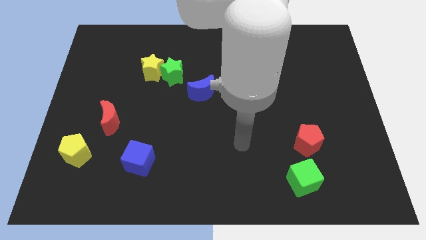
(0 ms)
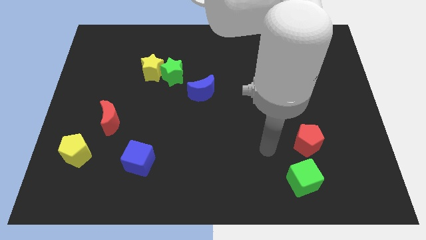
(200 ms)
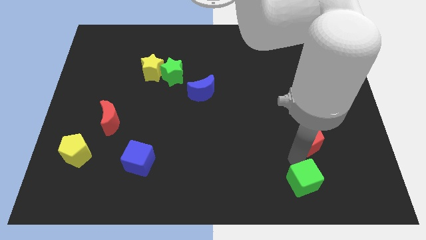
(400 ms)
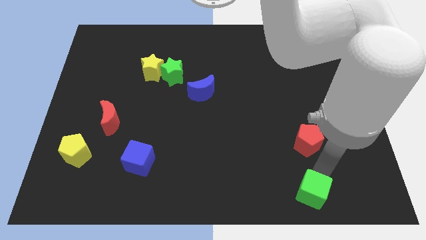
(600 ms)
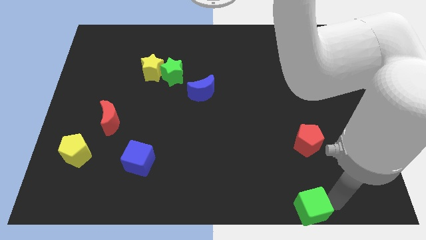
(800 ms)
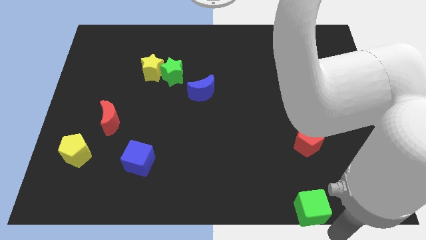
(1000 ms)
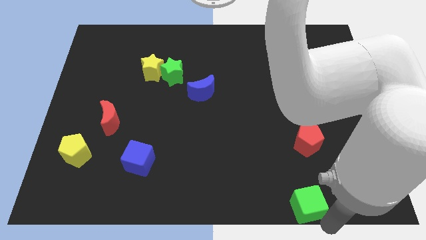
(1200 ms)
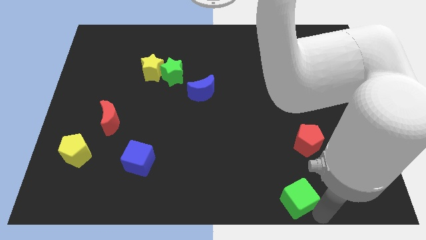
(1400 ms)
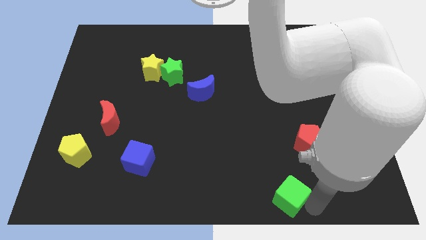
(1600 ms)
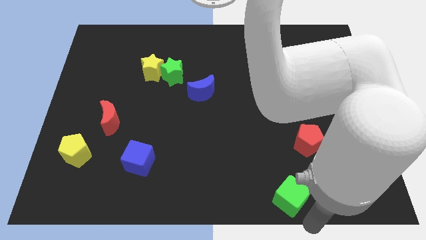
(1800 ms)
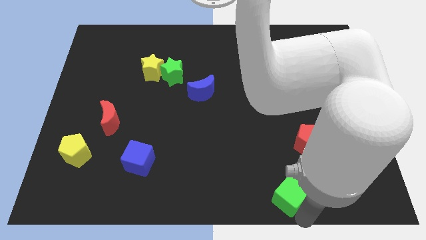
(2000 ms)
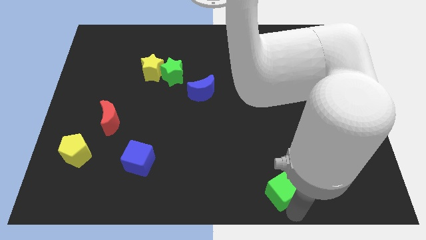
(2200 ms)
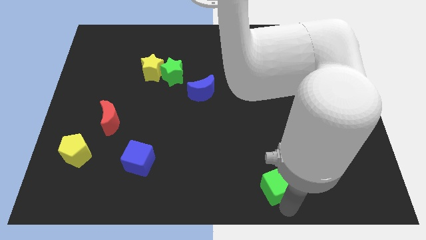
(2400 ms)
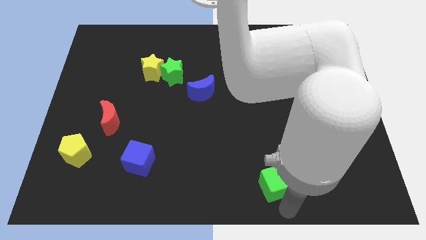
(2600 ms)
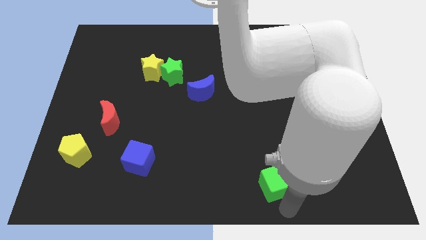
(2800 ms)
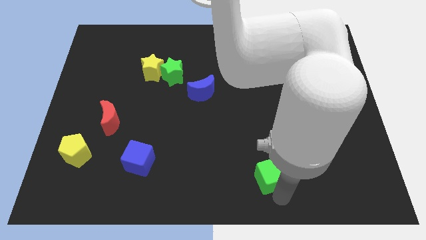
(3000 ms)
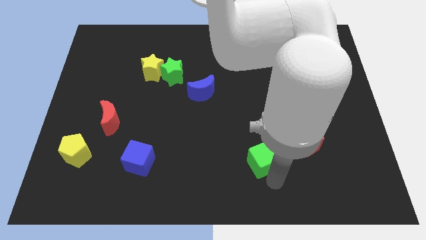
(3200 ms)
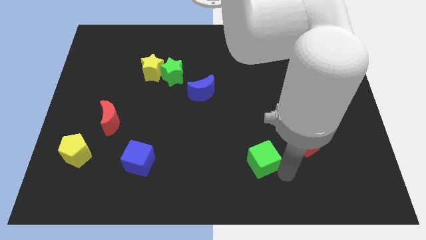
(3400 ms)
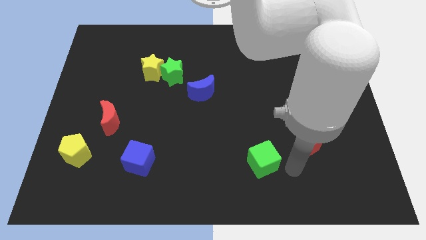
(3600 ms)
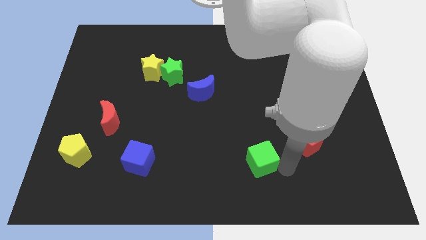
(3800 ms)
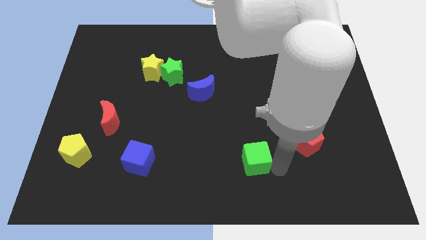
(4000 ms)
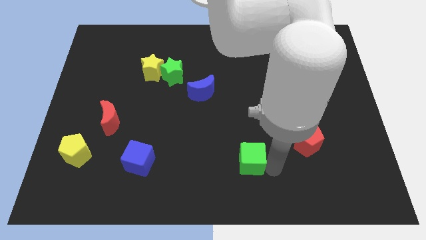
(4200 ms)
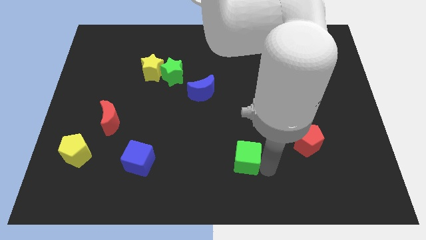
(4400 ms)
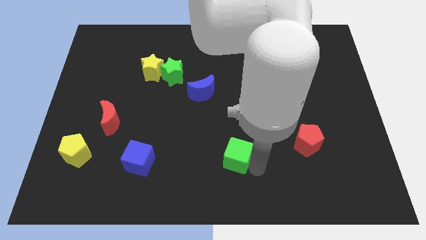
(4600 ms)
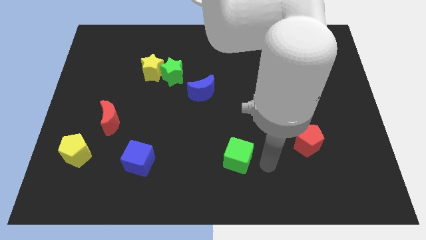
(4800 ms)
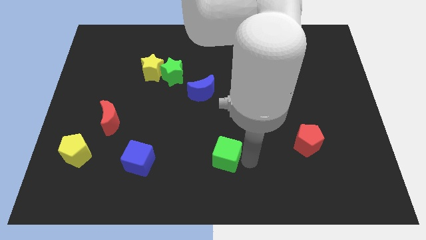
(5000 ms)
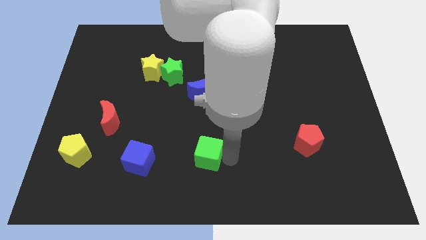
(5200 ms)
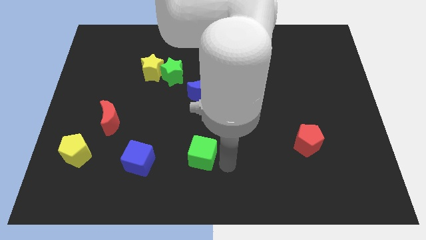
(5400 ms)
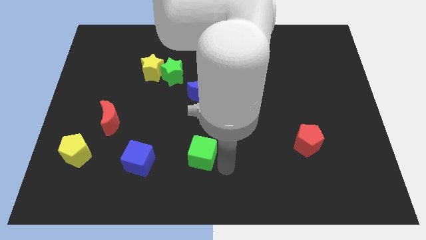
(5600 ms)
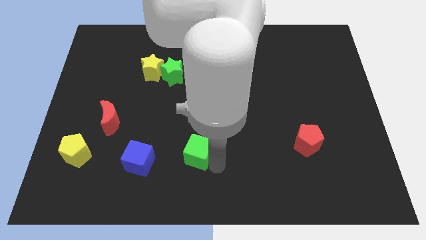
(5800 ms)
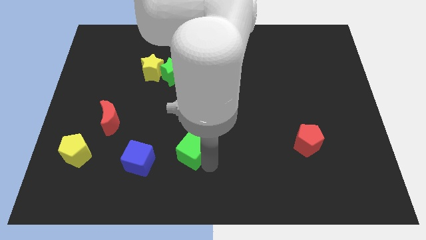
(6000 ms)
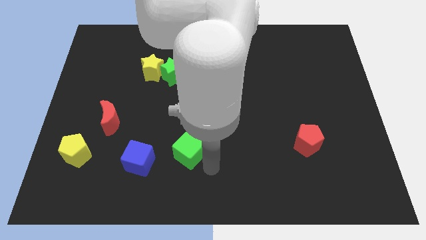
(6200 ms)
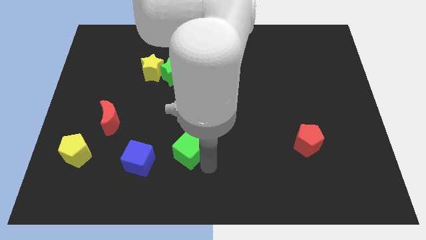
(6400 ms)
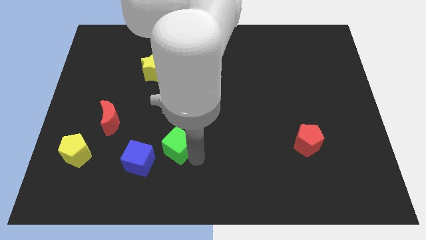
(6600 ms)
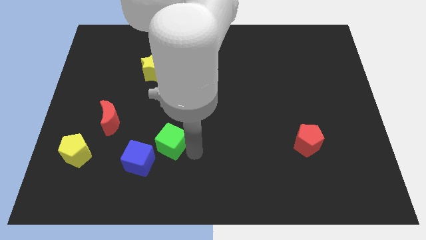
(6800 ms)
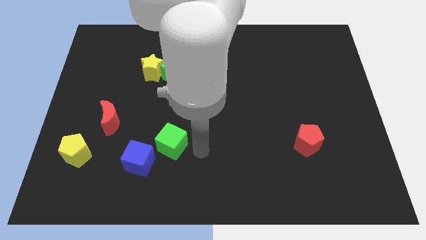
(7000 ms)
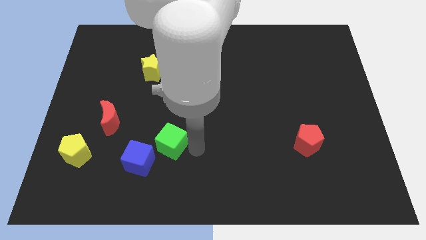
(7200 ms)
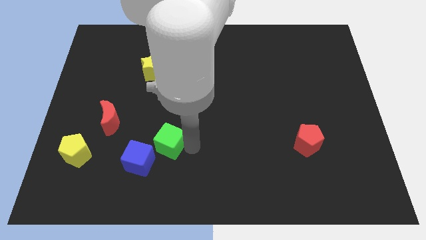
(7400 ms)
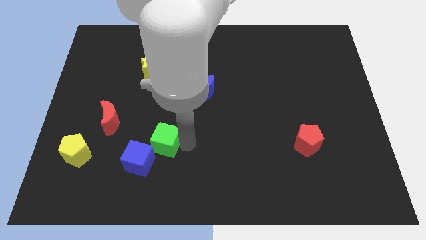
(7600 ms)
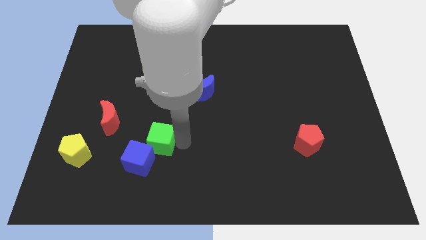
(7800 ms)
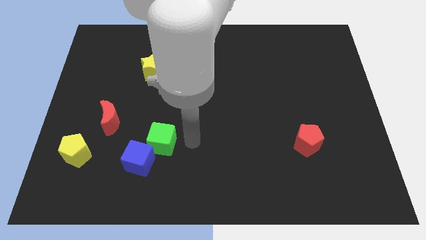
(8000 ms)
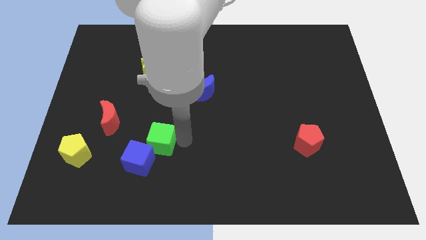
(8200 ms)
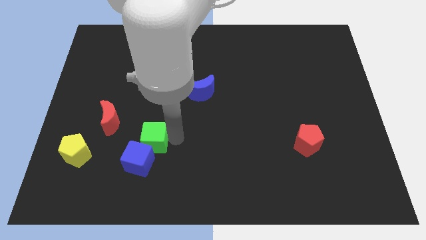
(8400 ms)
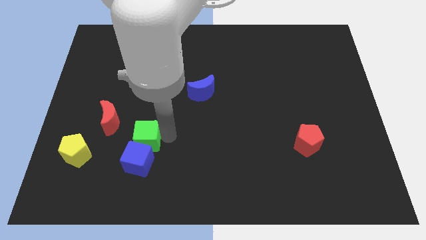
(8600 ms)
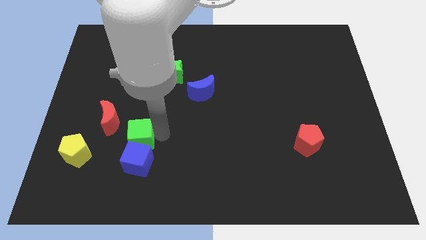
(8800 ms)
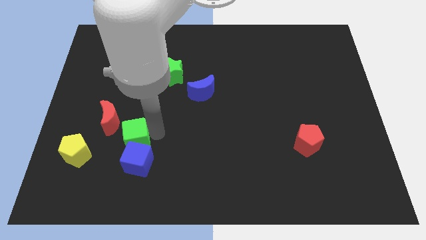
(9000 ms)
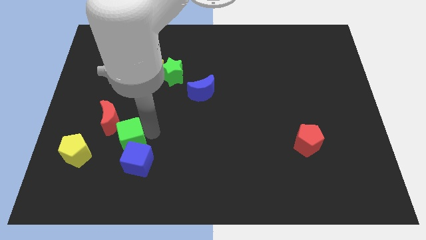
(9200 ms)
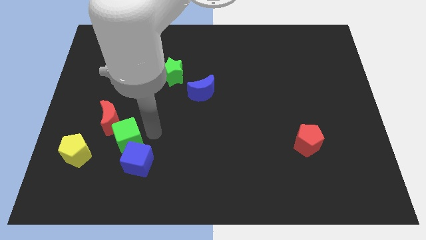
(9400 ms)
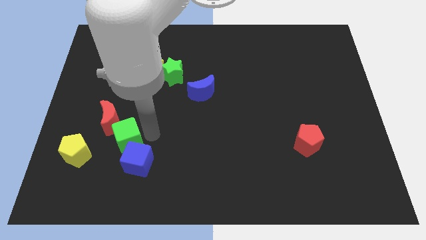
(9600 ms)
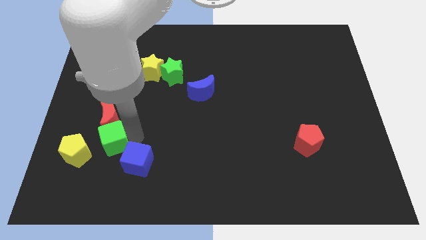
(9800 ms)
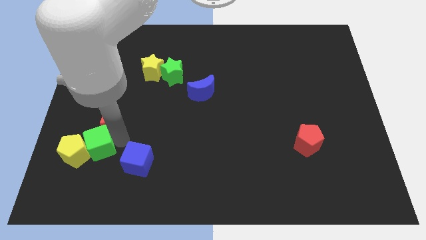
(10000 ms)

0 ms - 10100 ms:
push the green cube close to the yellow pentagon

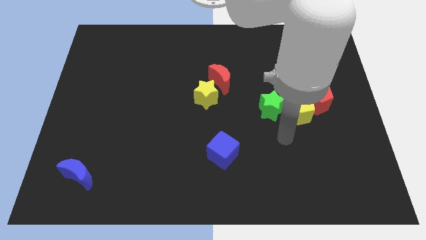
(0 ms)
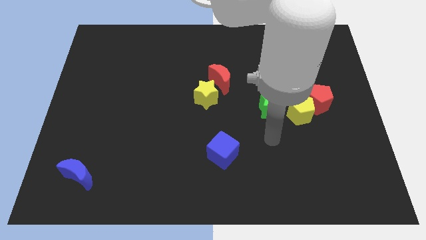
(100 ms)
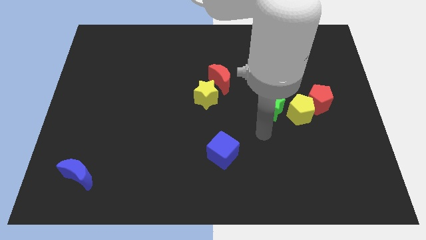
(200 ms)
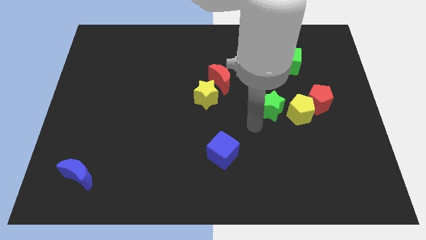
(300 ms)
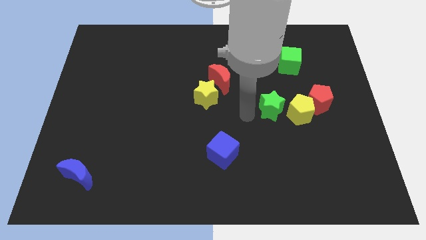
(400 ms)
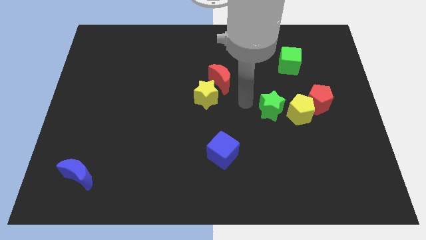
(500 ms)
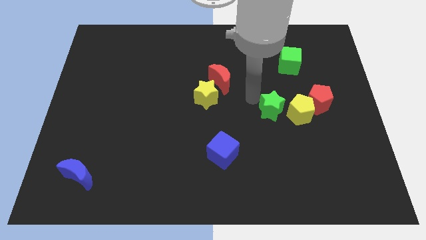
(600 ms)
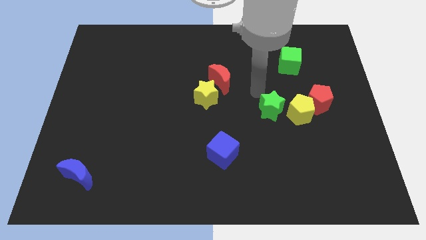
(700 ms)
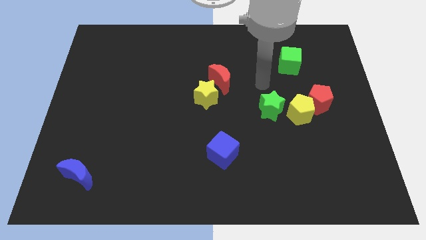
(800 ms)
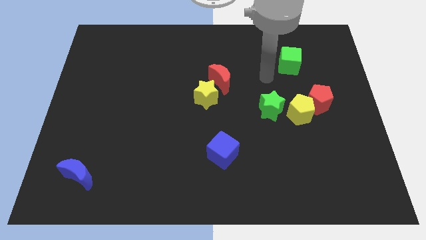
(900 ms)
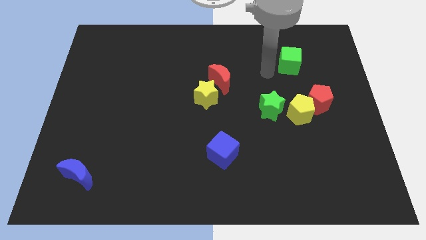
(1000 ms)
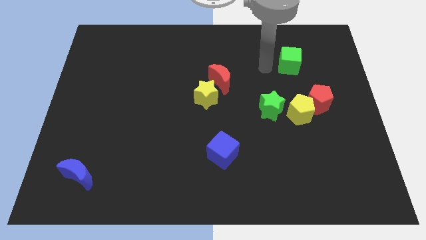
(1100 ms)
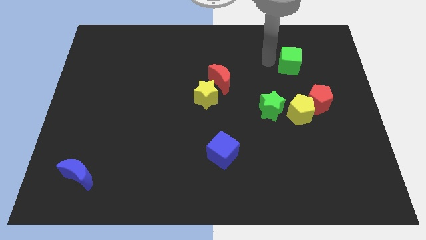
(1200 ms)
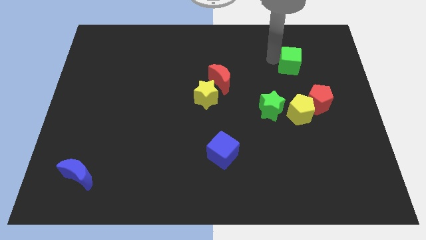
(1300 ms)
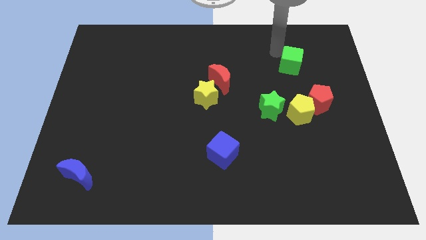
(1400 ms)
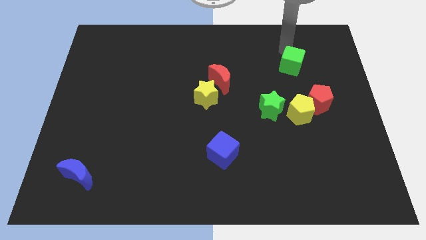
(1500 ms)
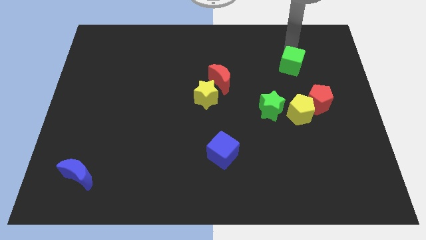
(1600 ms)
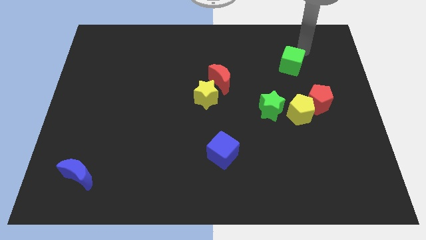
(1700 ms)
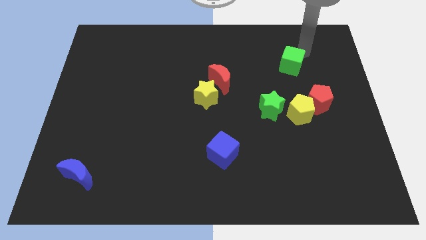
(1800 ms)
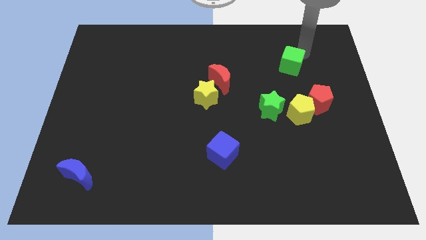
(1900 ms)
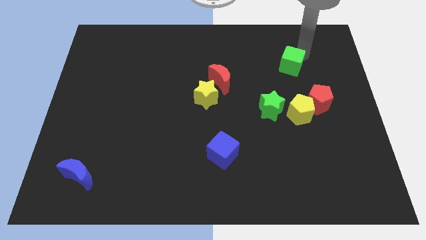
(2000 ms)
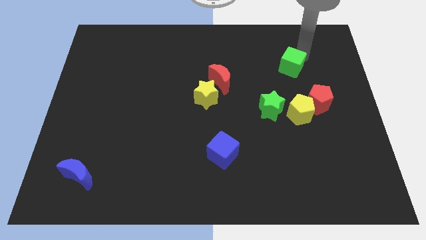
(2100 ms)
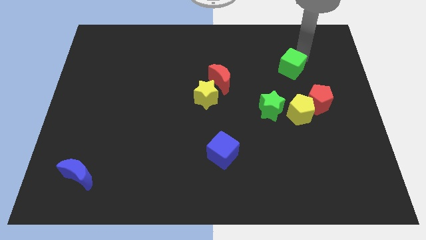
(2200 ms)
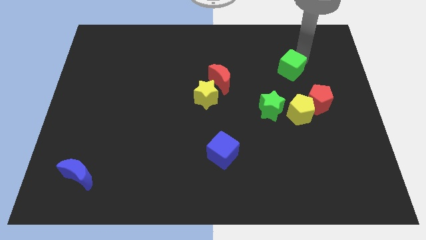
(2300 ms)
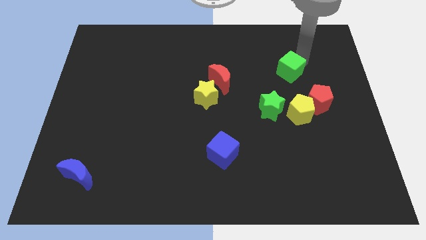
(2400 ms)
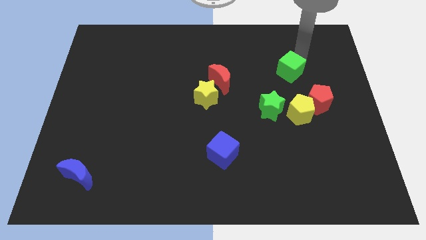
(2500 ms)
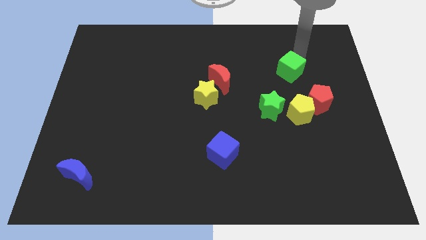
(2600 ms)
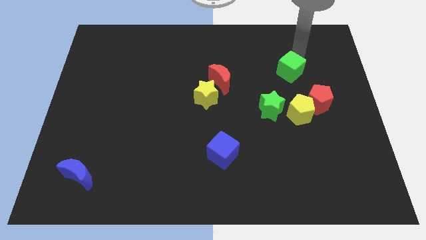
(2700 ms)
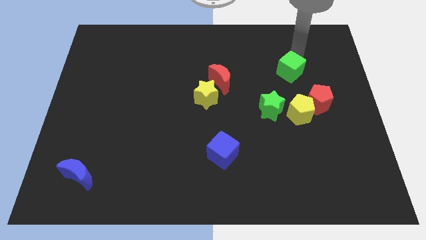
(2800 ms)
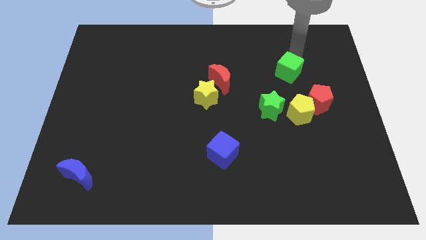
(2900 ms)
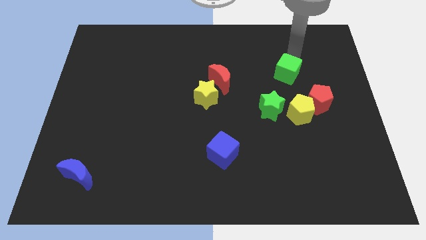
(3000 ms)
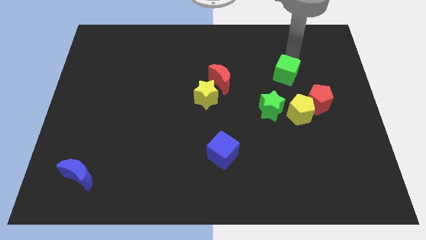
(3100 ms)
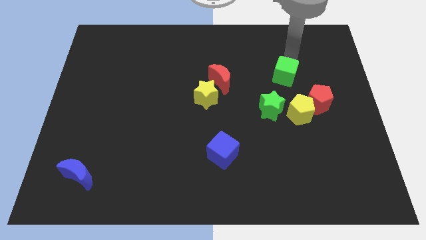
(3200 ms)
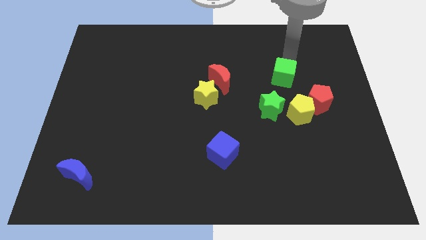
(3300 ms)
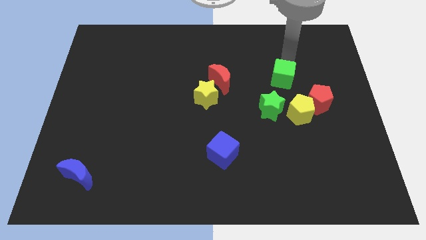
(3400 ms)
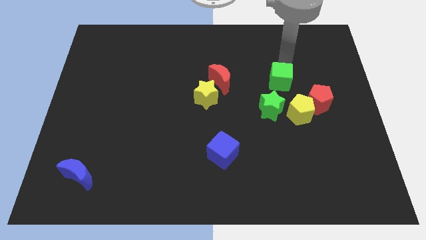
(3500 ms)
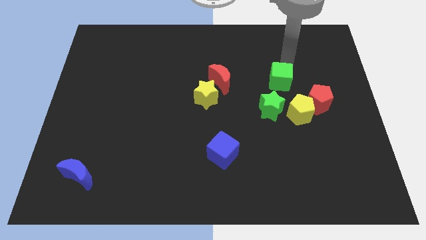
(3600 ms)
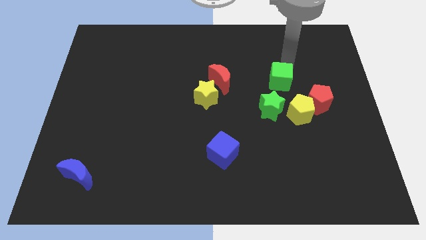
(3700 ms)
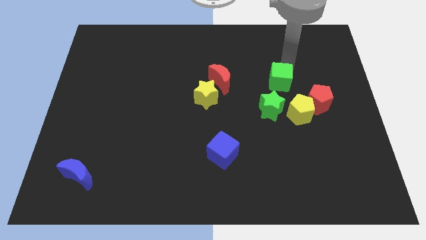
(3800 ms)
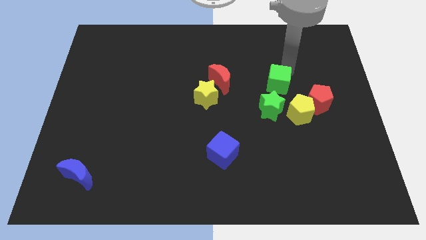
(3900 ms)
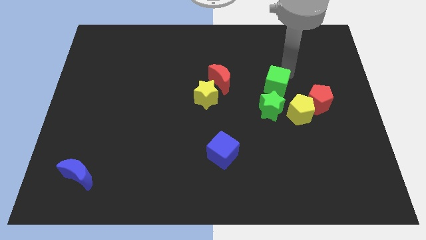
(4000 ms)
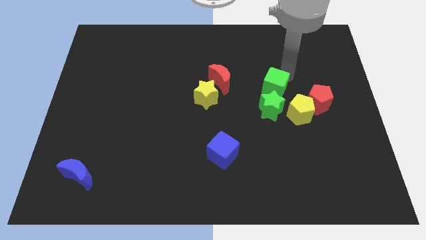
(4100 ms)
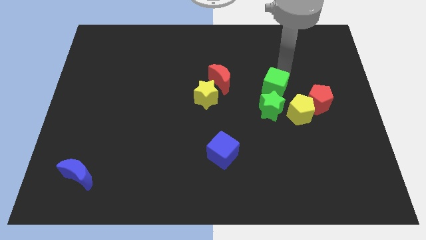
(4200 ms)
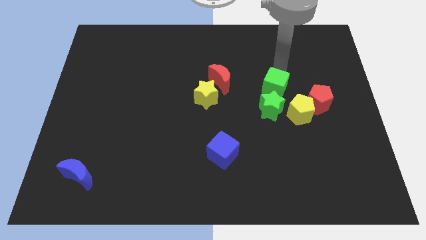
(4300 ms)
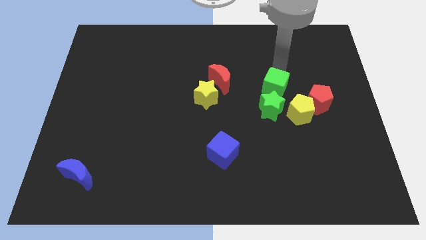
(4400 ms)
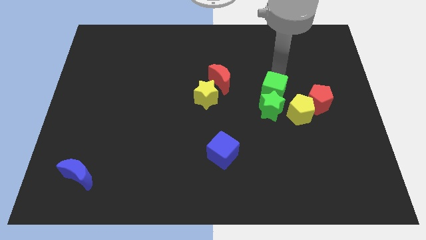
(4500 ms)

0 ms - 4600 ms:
push the green cube close to the green star
